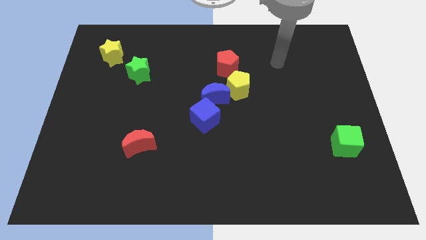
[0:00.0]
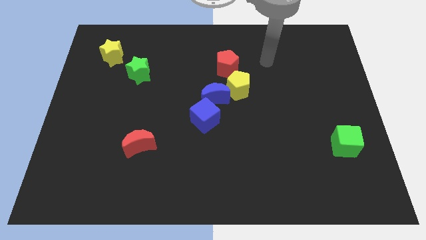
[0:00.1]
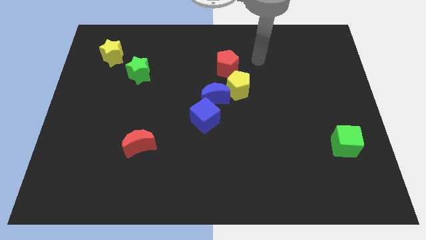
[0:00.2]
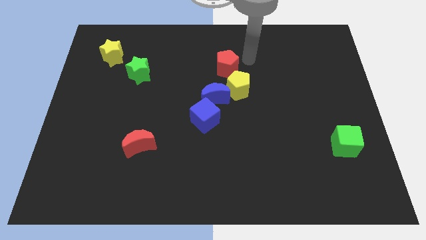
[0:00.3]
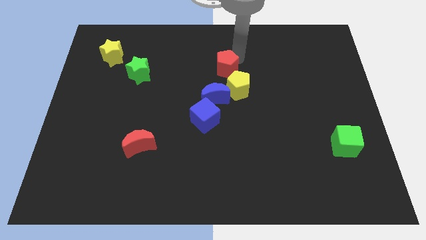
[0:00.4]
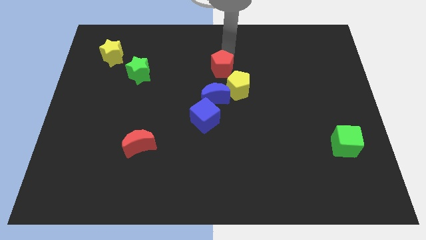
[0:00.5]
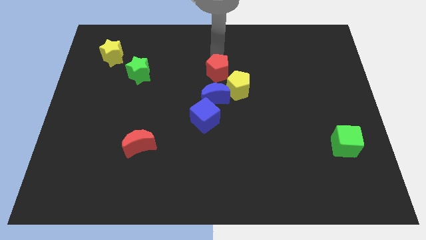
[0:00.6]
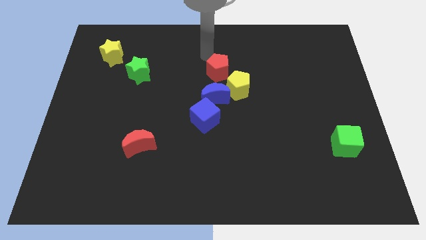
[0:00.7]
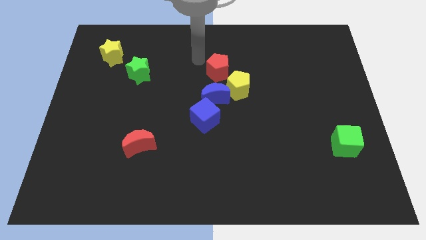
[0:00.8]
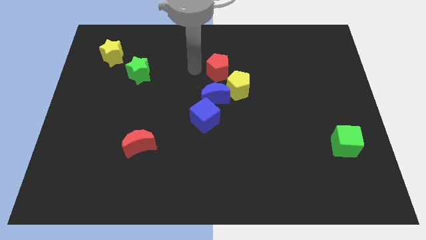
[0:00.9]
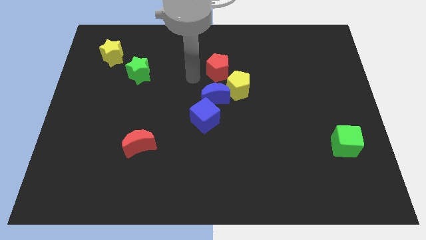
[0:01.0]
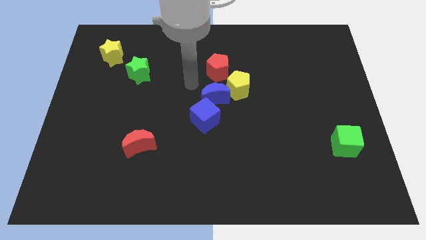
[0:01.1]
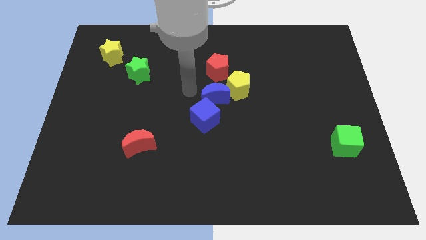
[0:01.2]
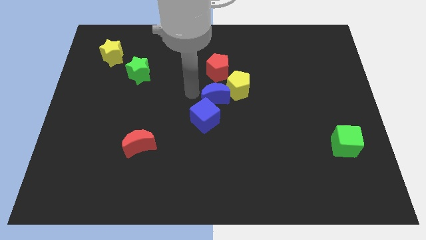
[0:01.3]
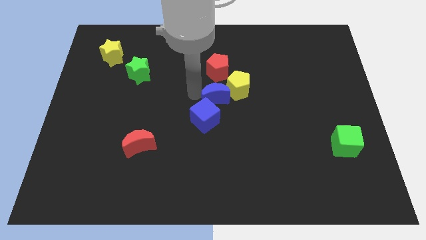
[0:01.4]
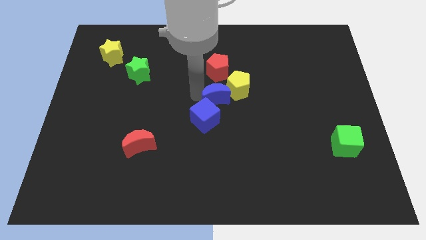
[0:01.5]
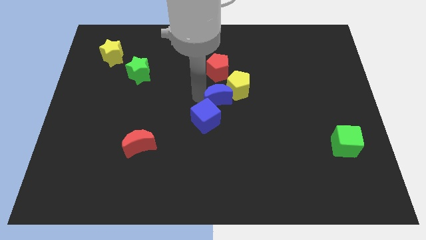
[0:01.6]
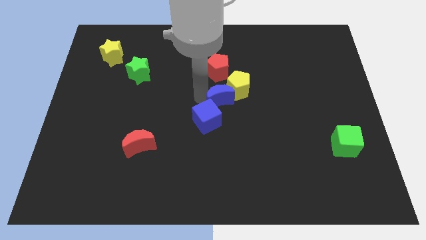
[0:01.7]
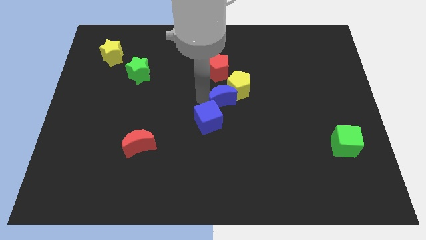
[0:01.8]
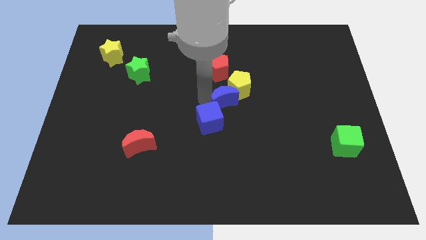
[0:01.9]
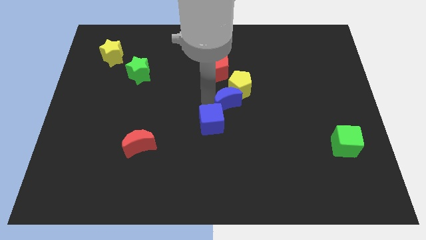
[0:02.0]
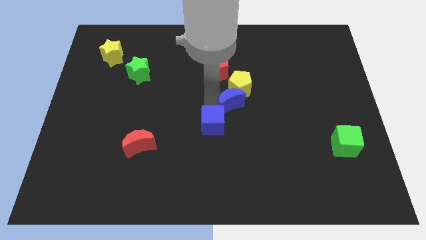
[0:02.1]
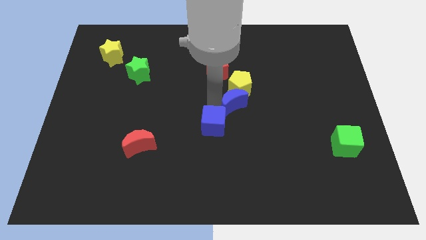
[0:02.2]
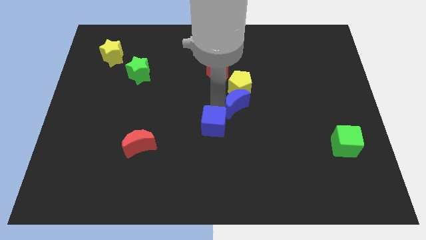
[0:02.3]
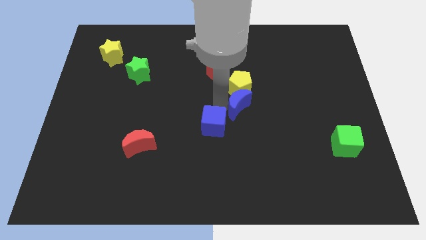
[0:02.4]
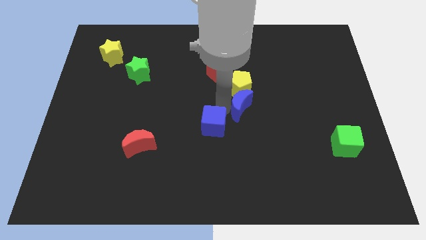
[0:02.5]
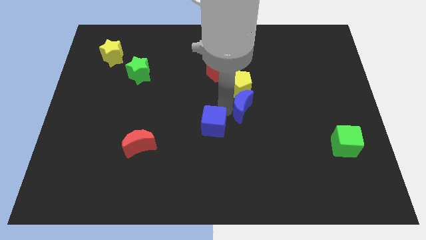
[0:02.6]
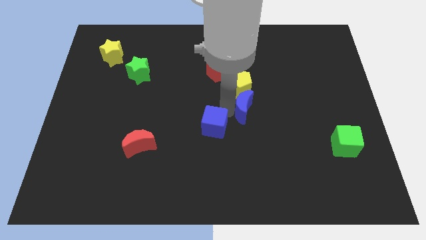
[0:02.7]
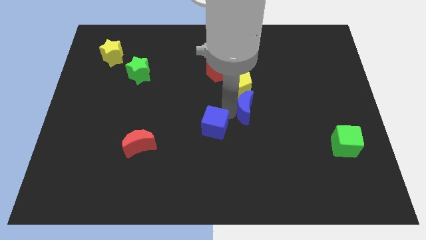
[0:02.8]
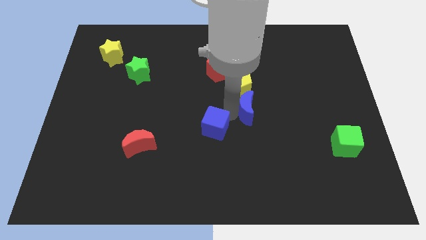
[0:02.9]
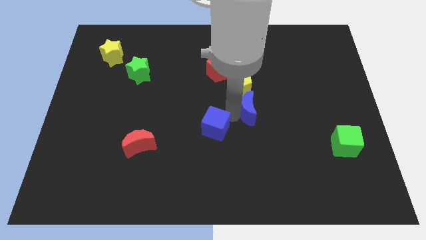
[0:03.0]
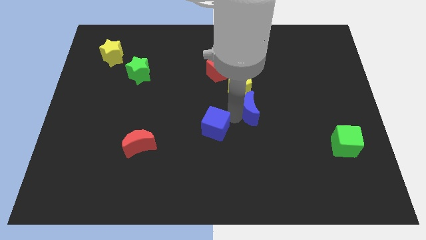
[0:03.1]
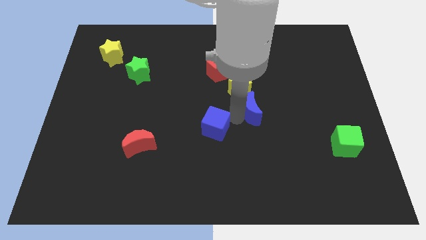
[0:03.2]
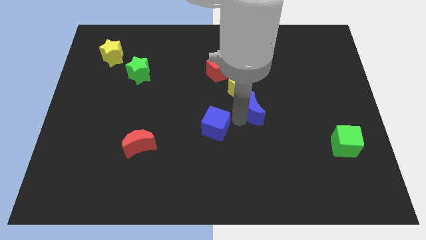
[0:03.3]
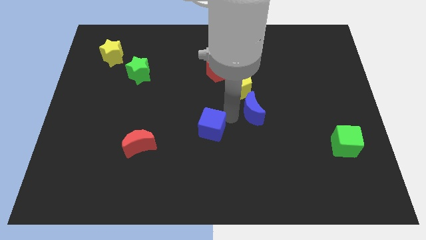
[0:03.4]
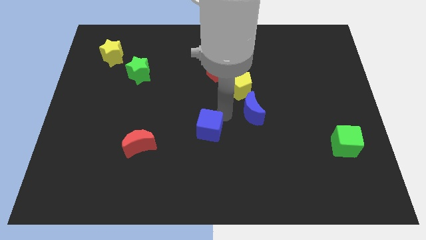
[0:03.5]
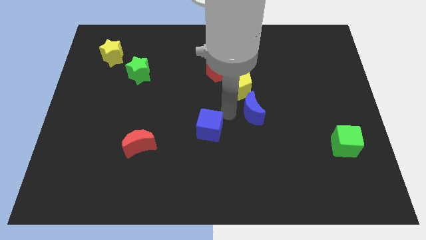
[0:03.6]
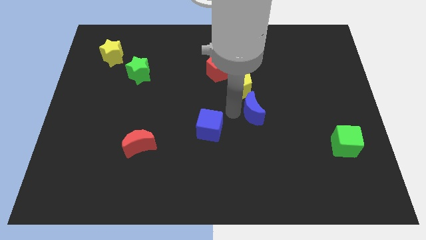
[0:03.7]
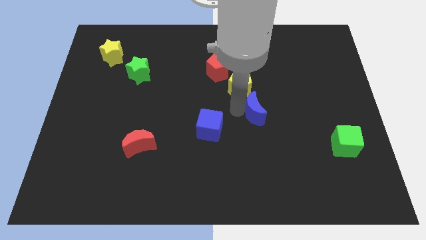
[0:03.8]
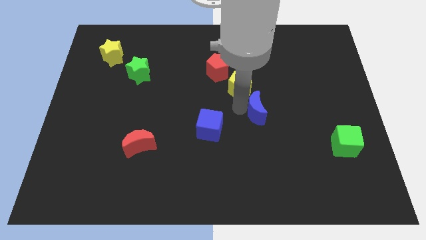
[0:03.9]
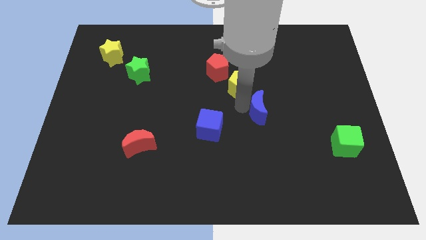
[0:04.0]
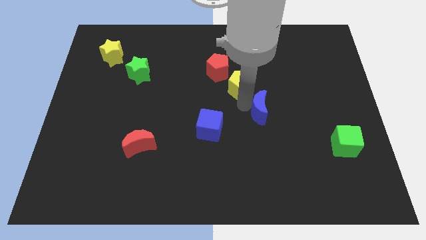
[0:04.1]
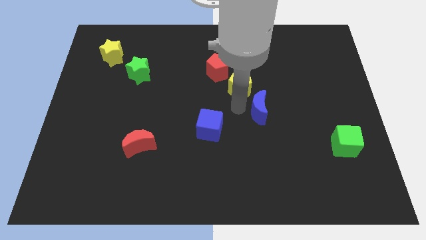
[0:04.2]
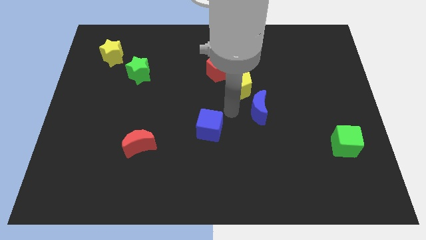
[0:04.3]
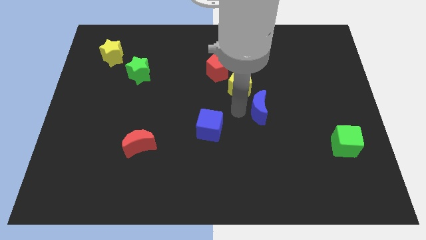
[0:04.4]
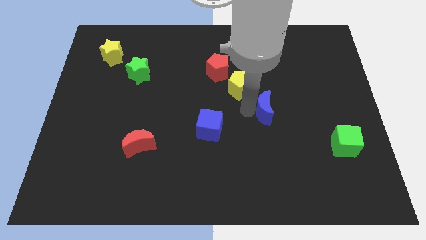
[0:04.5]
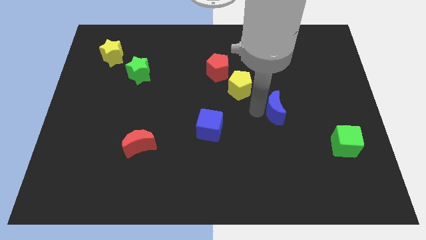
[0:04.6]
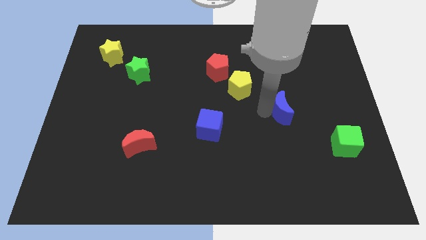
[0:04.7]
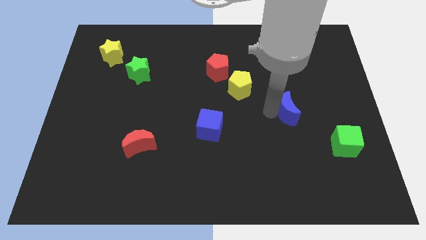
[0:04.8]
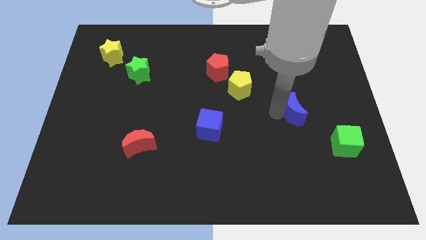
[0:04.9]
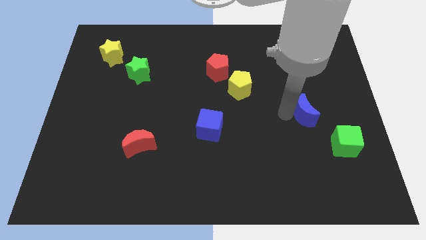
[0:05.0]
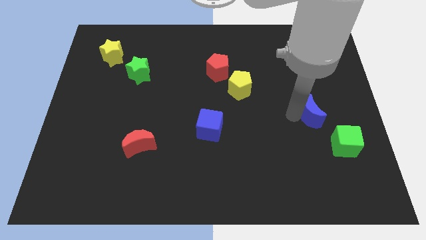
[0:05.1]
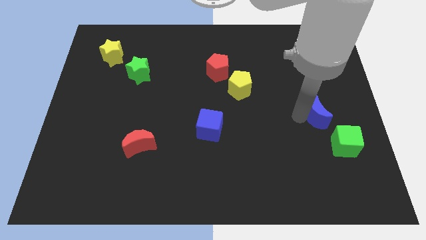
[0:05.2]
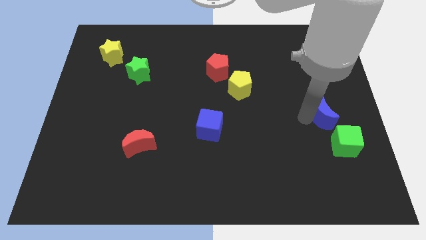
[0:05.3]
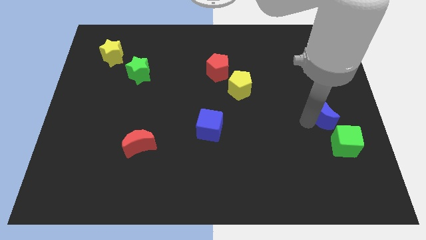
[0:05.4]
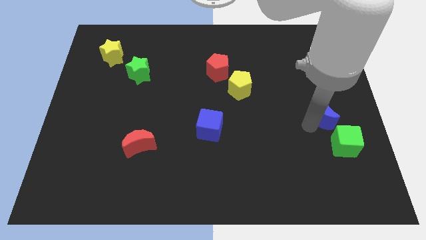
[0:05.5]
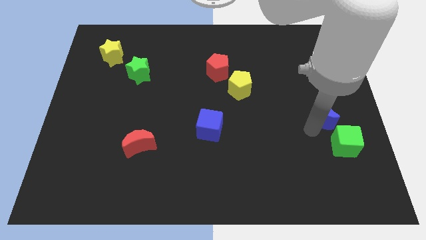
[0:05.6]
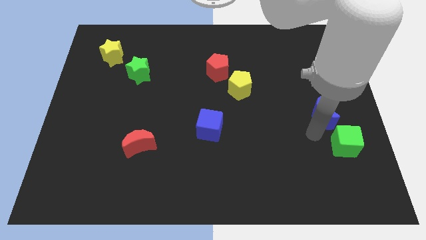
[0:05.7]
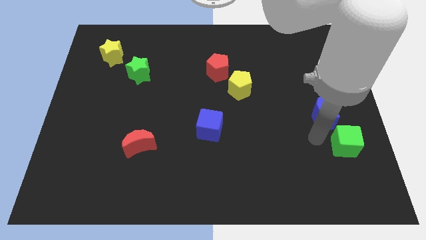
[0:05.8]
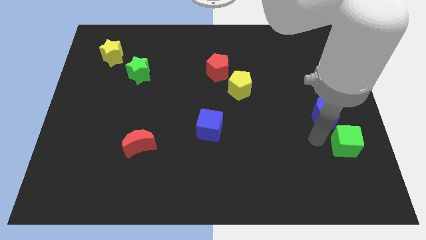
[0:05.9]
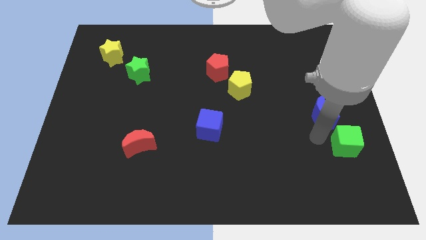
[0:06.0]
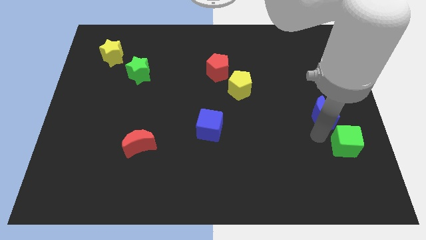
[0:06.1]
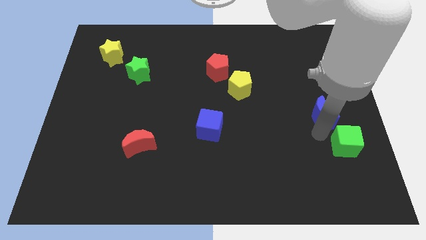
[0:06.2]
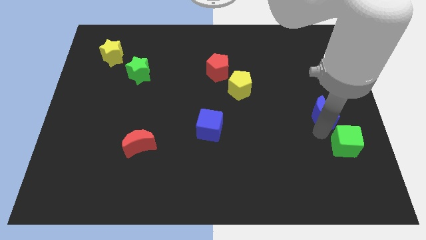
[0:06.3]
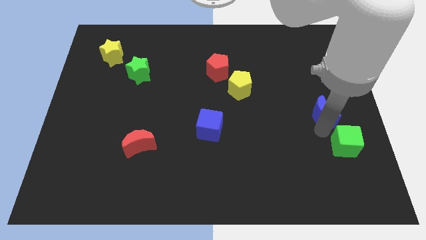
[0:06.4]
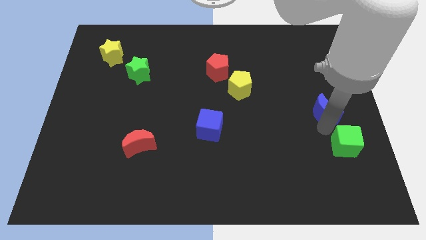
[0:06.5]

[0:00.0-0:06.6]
push the blue moon to the center right
